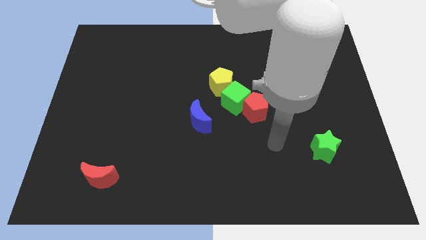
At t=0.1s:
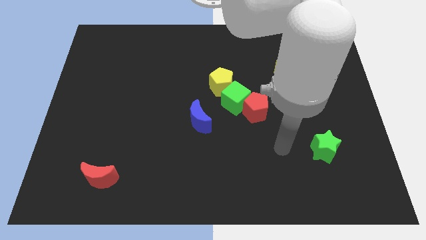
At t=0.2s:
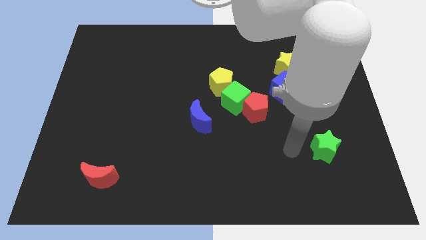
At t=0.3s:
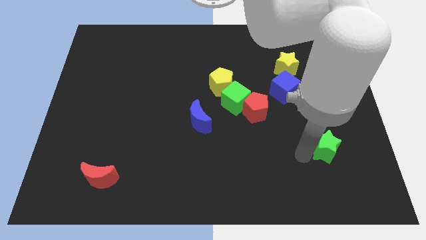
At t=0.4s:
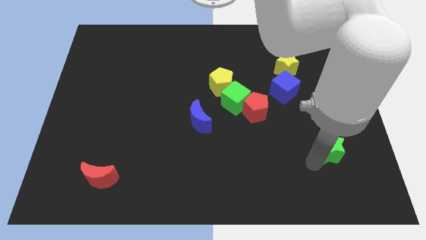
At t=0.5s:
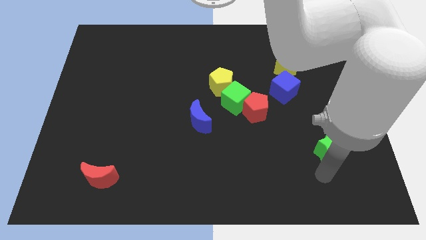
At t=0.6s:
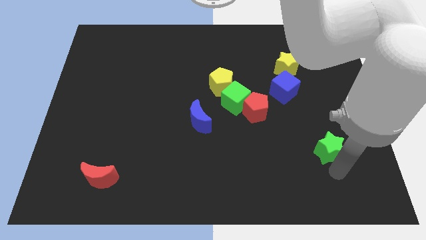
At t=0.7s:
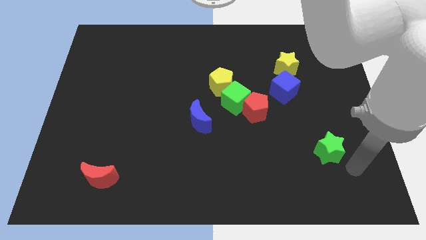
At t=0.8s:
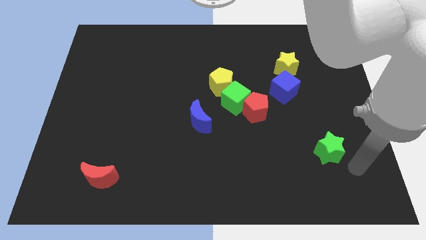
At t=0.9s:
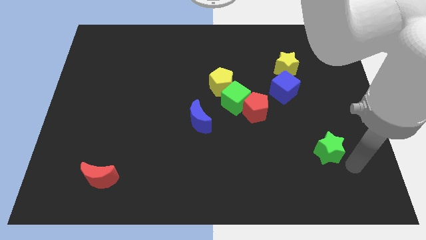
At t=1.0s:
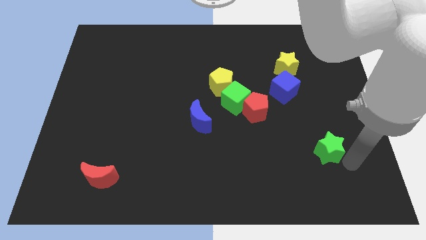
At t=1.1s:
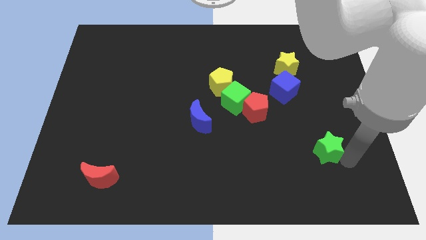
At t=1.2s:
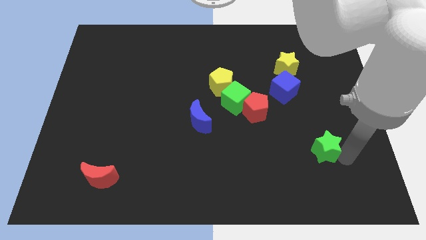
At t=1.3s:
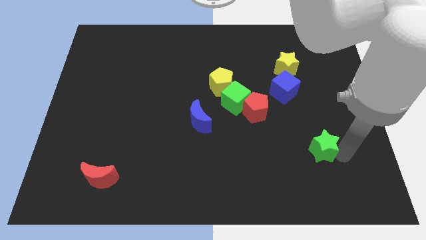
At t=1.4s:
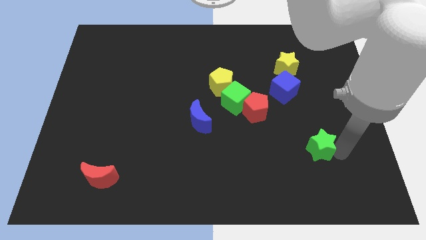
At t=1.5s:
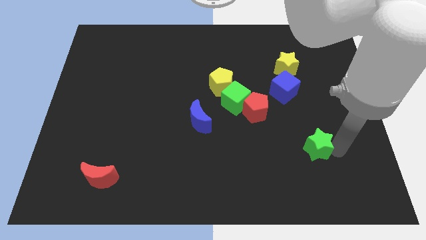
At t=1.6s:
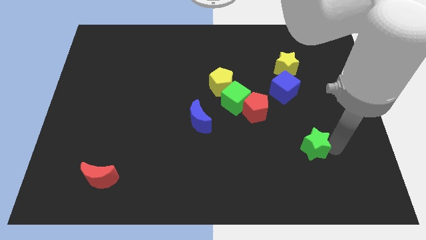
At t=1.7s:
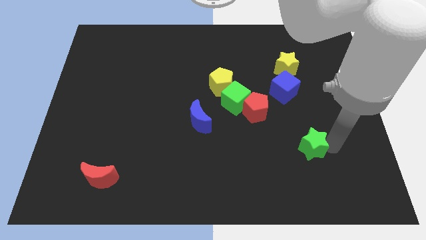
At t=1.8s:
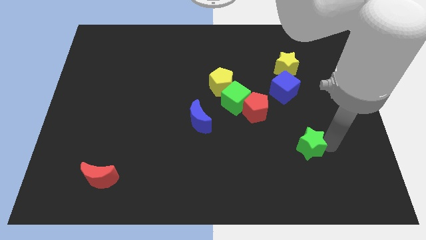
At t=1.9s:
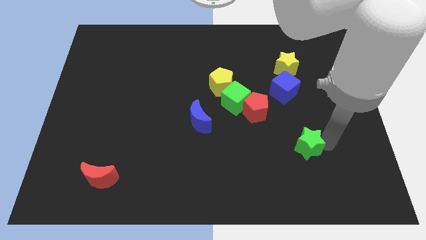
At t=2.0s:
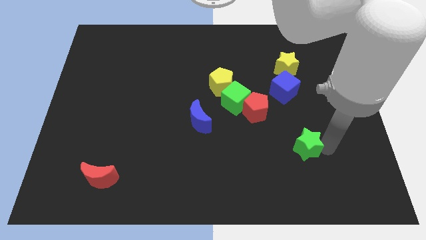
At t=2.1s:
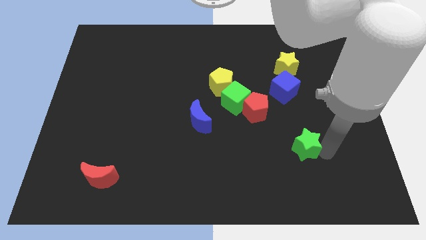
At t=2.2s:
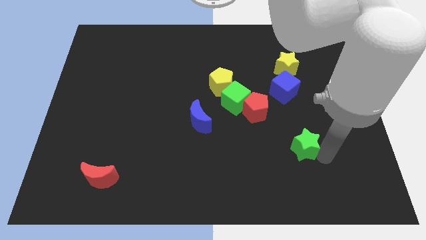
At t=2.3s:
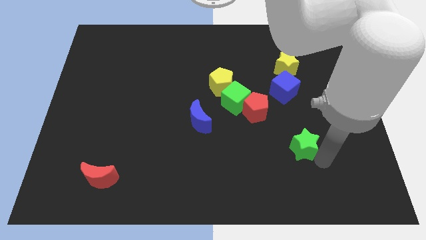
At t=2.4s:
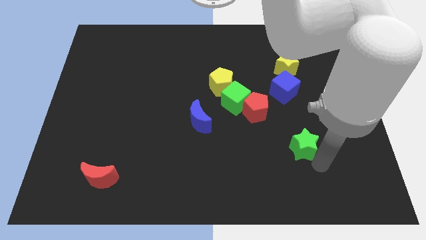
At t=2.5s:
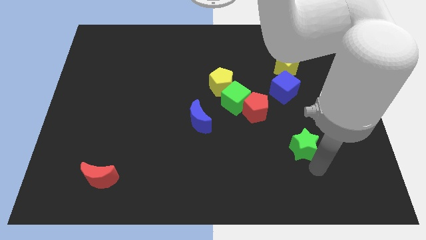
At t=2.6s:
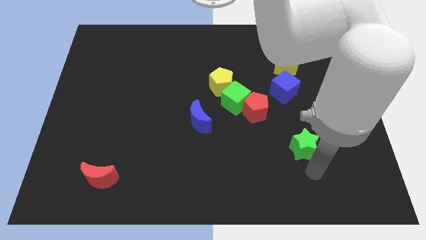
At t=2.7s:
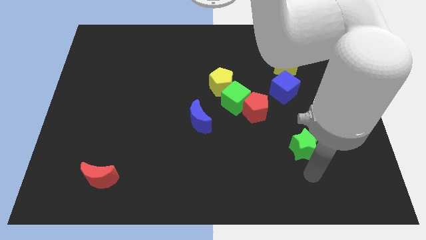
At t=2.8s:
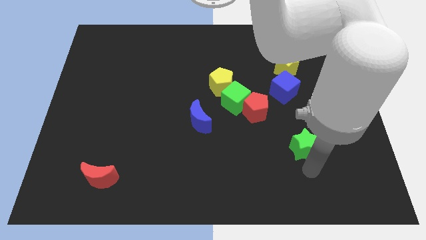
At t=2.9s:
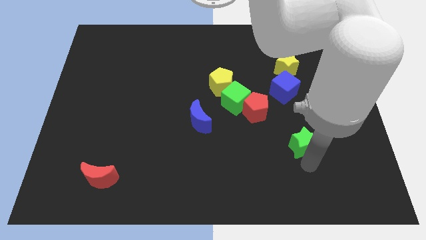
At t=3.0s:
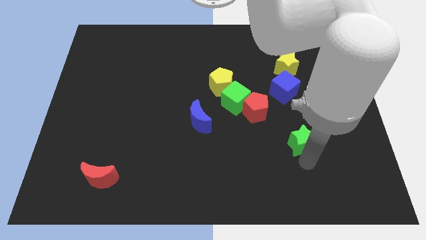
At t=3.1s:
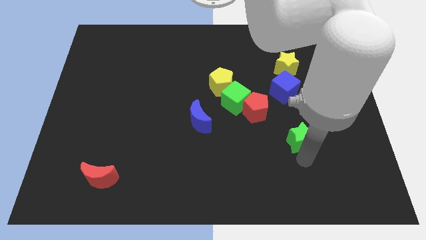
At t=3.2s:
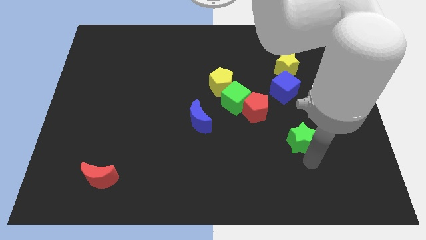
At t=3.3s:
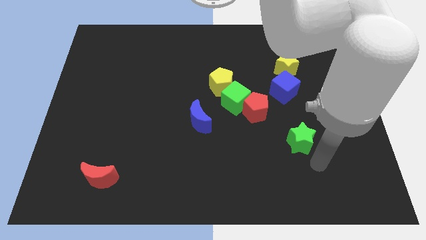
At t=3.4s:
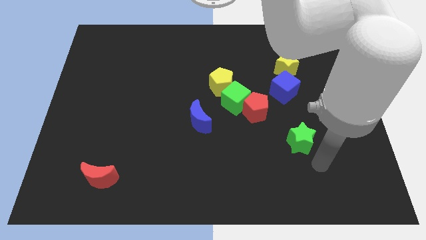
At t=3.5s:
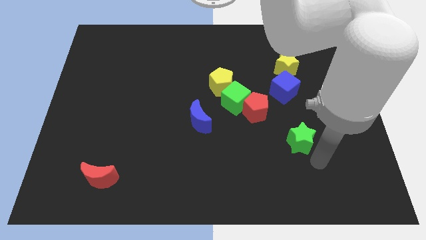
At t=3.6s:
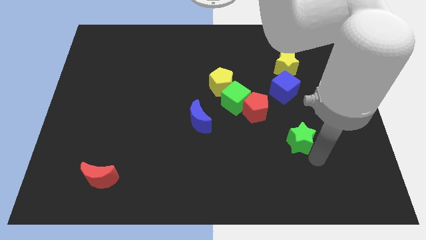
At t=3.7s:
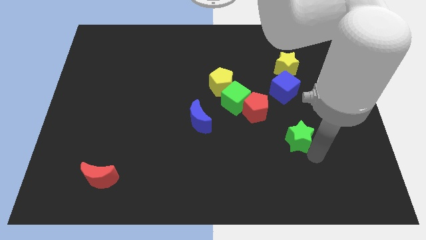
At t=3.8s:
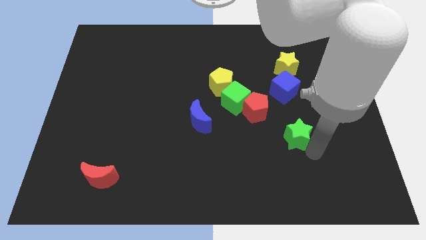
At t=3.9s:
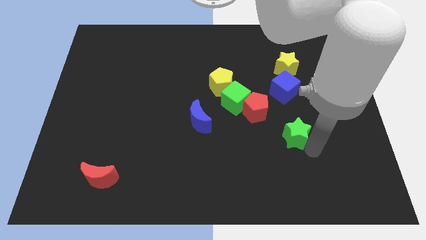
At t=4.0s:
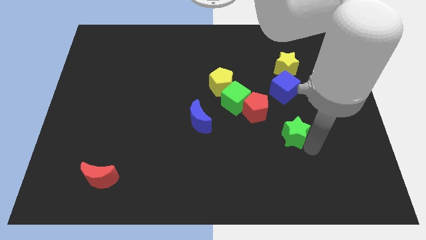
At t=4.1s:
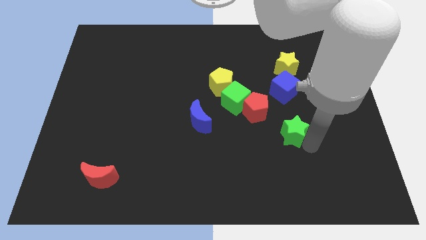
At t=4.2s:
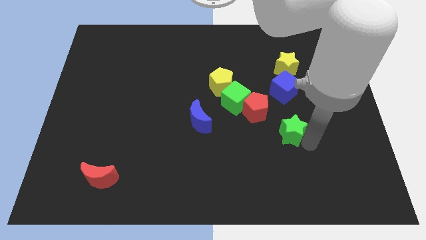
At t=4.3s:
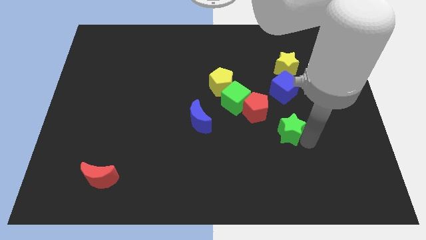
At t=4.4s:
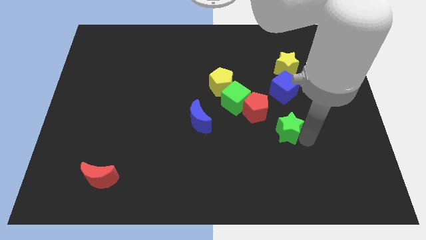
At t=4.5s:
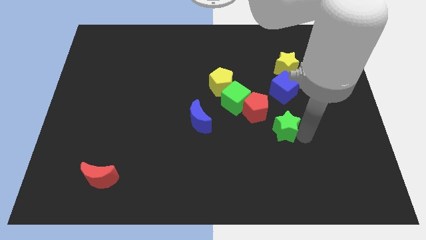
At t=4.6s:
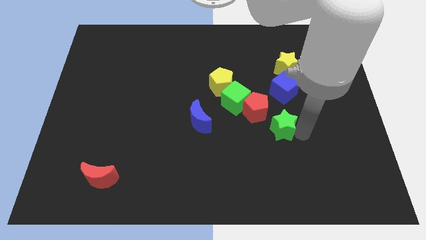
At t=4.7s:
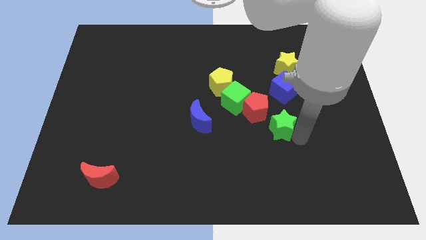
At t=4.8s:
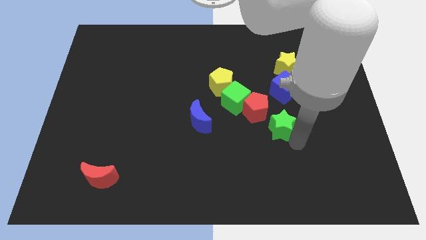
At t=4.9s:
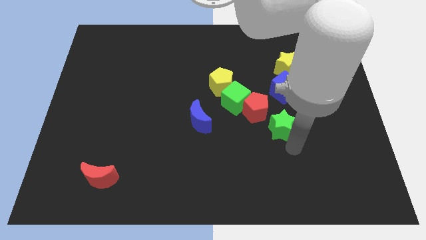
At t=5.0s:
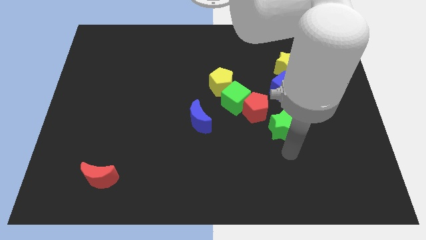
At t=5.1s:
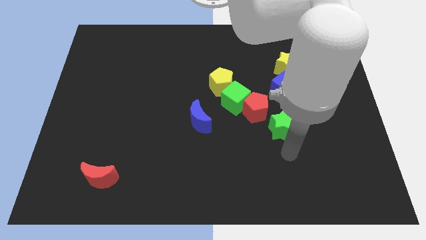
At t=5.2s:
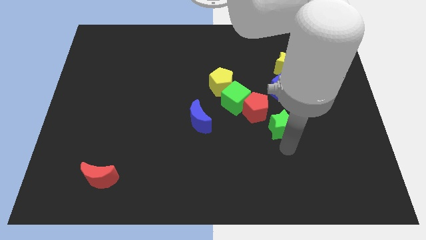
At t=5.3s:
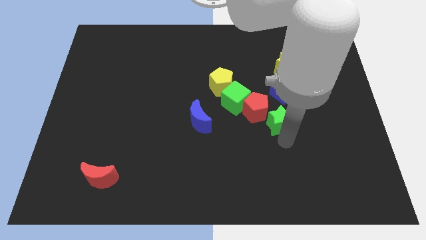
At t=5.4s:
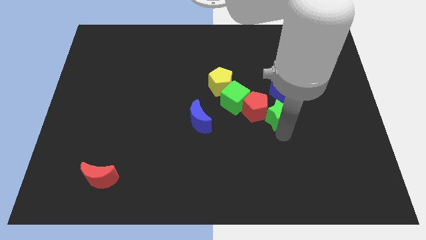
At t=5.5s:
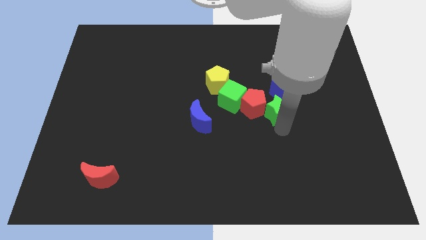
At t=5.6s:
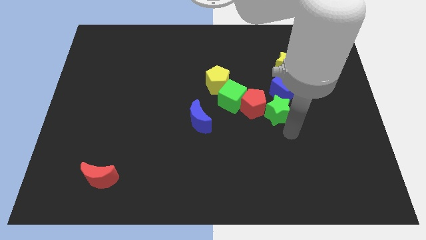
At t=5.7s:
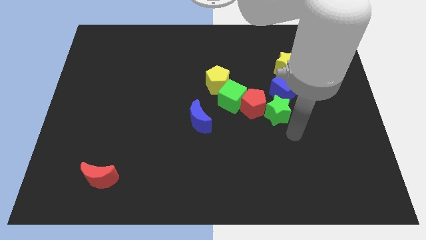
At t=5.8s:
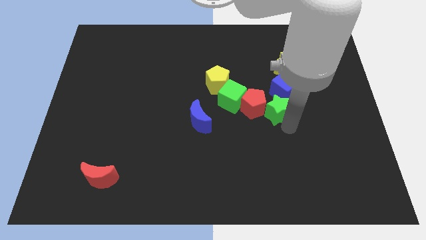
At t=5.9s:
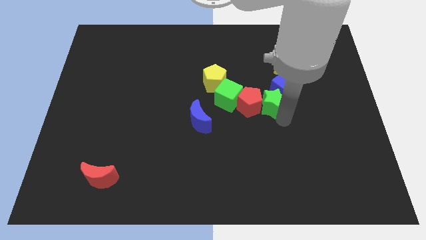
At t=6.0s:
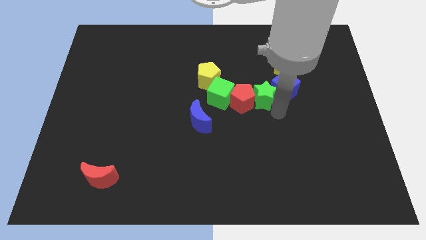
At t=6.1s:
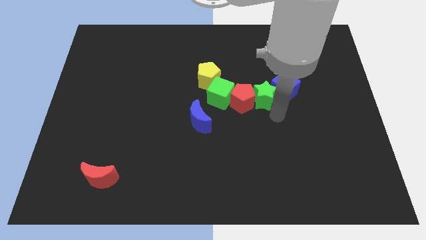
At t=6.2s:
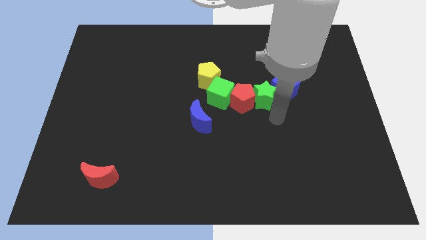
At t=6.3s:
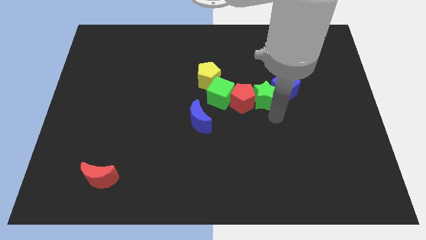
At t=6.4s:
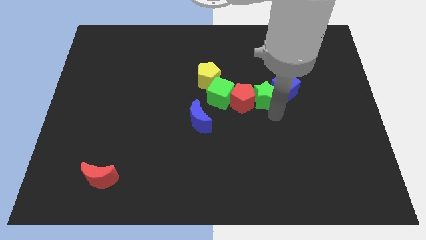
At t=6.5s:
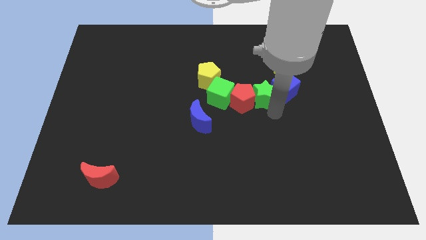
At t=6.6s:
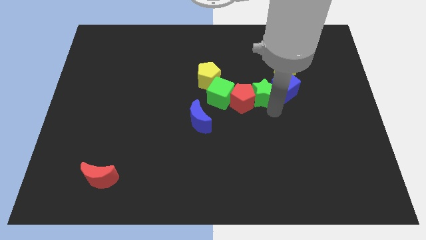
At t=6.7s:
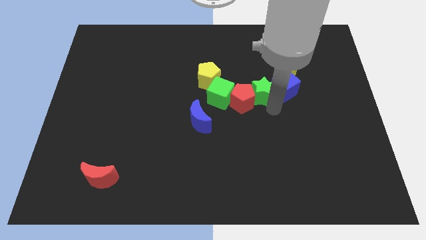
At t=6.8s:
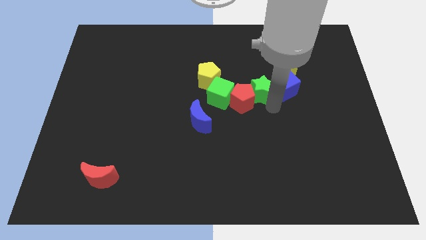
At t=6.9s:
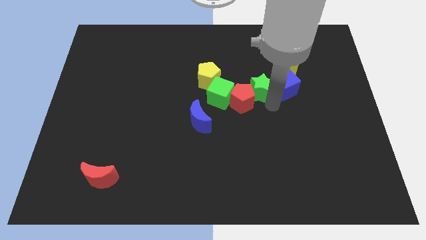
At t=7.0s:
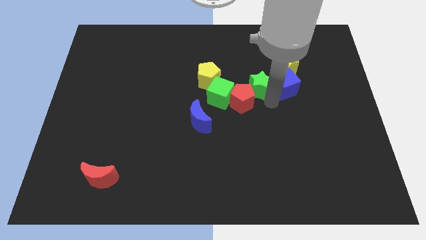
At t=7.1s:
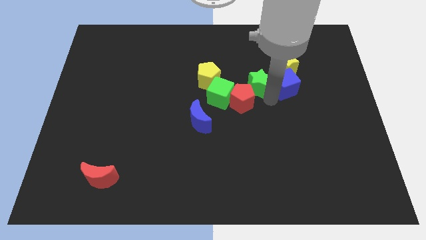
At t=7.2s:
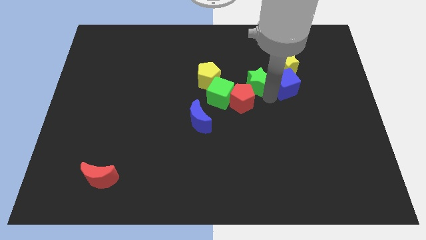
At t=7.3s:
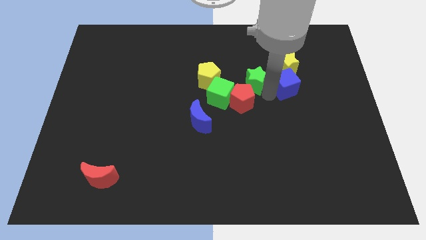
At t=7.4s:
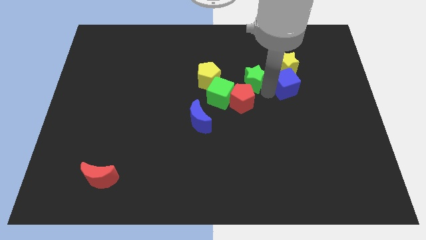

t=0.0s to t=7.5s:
put the green star just left of the yellow star
